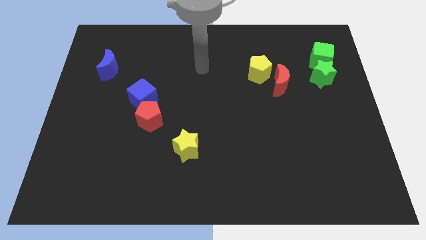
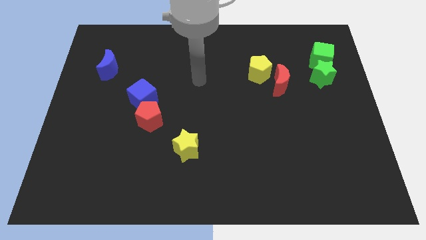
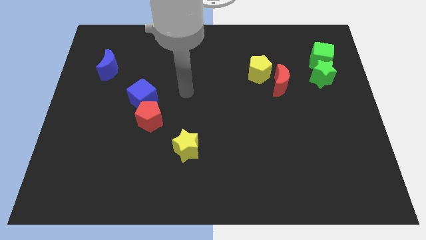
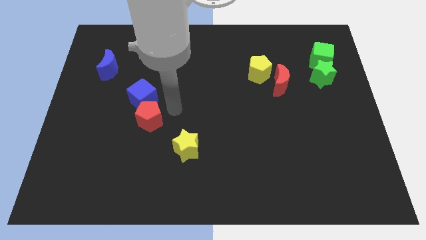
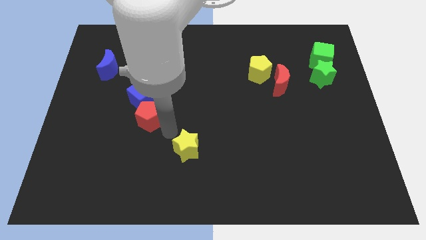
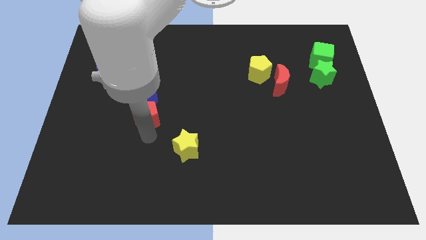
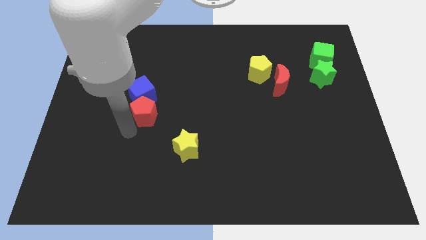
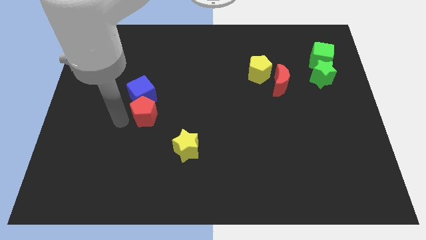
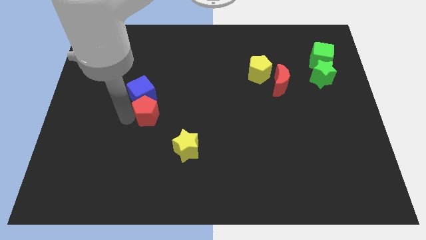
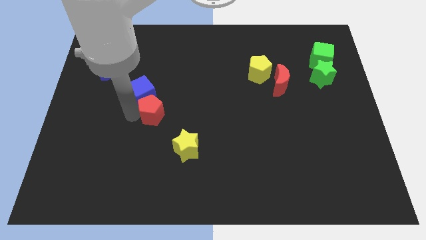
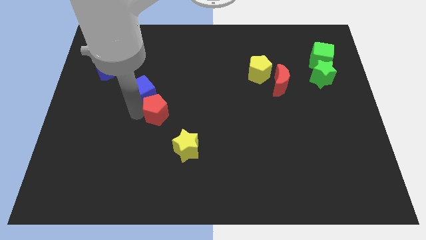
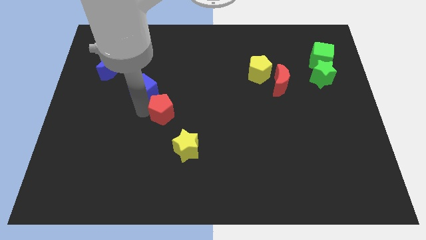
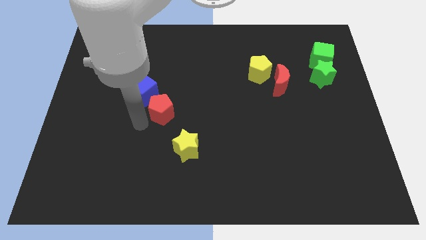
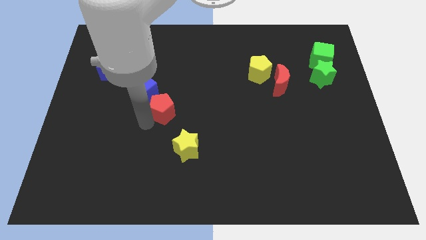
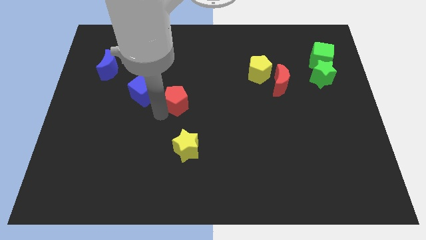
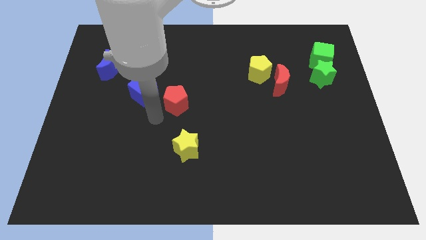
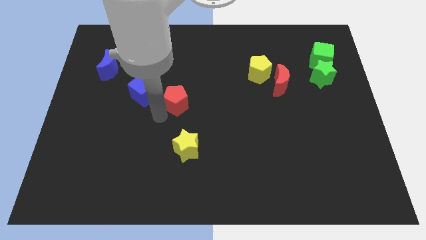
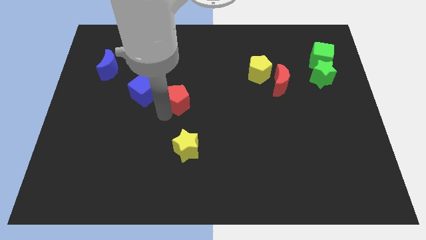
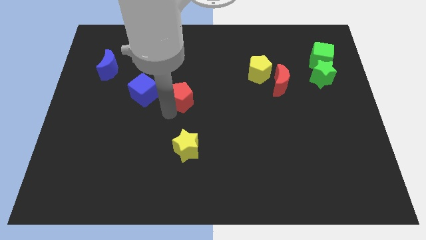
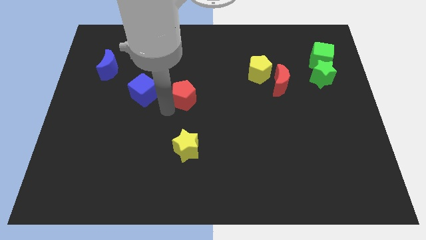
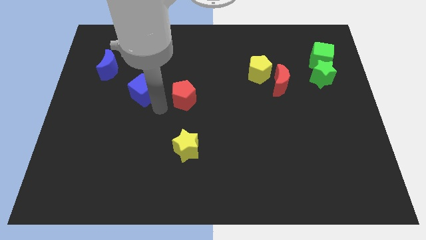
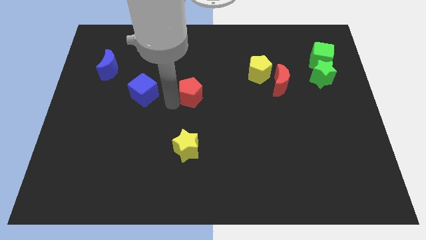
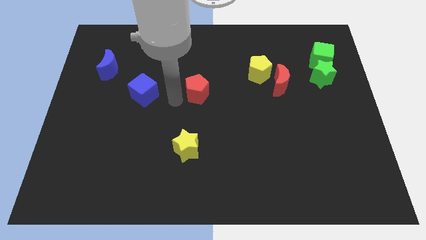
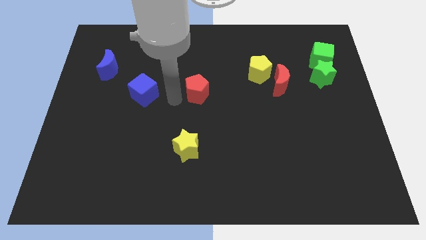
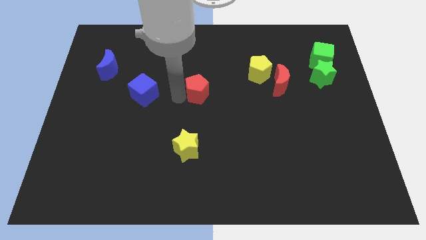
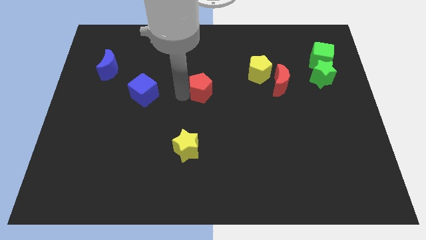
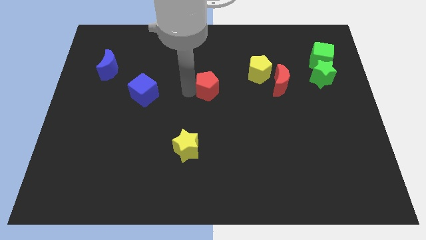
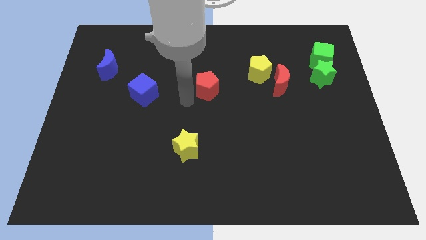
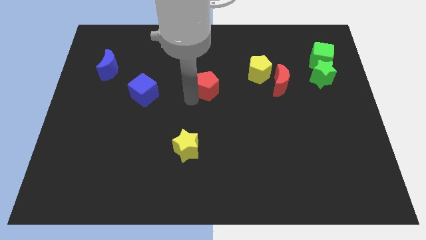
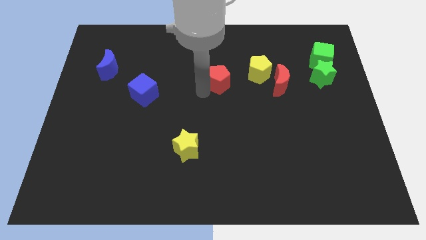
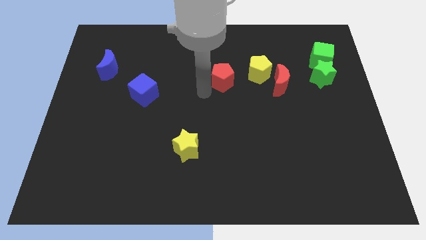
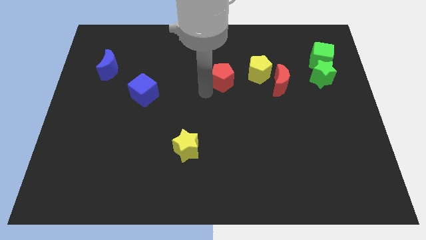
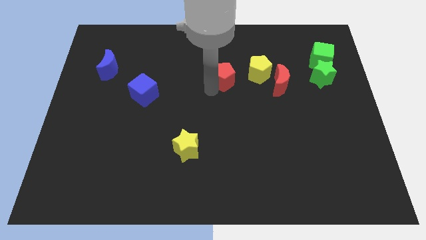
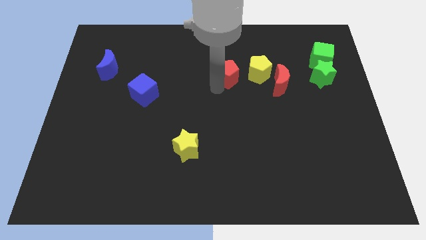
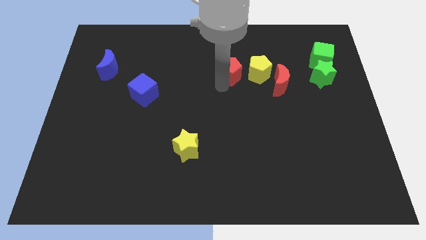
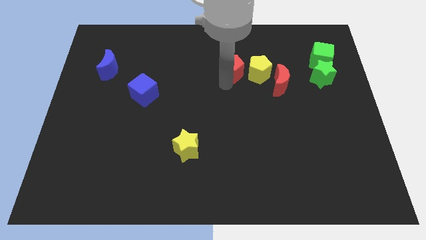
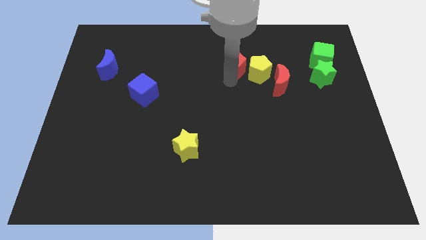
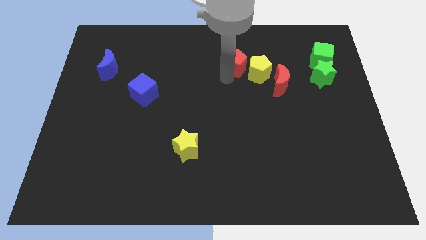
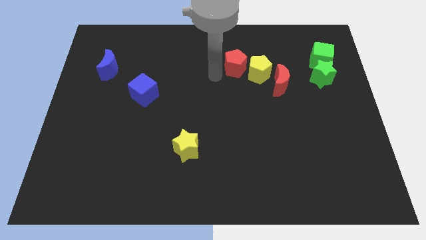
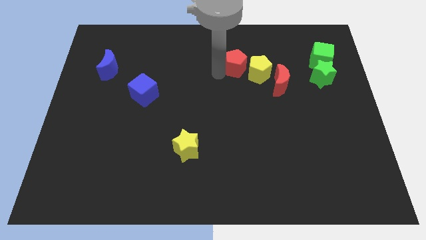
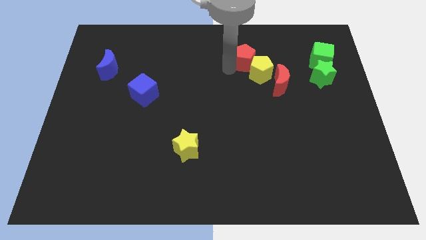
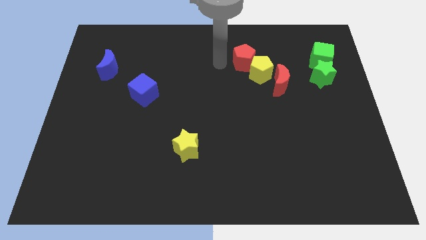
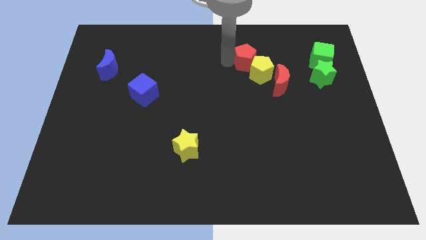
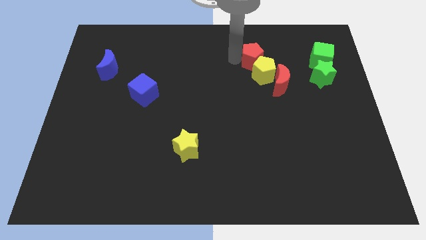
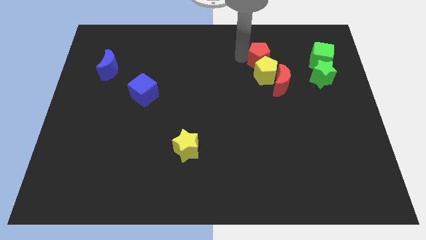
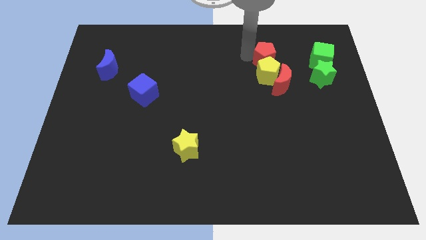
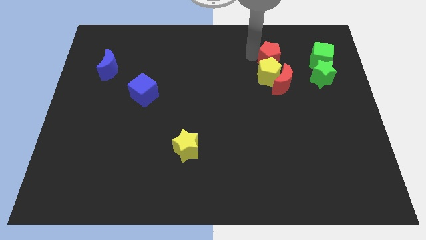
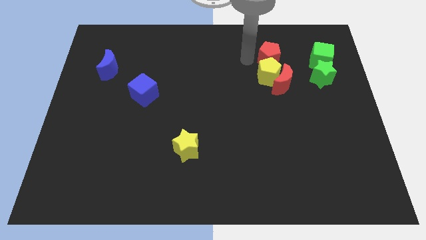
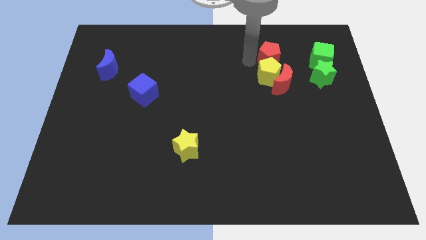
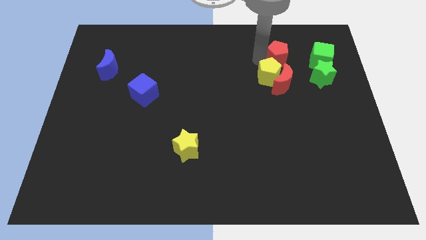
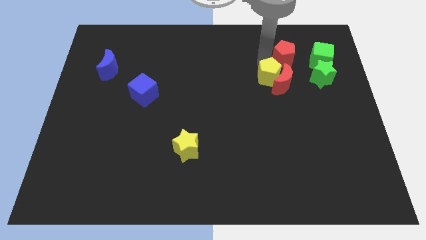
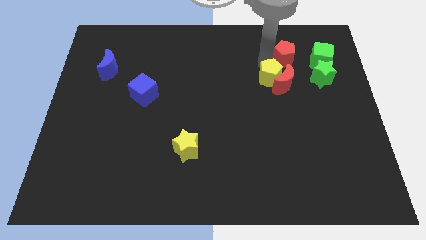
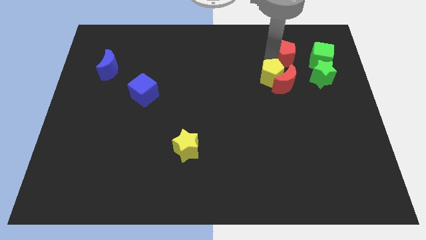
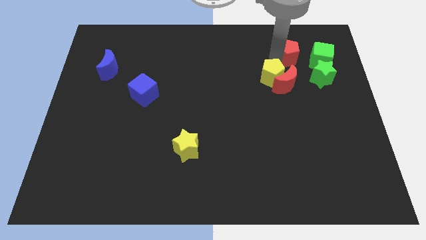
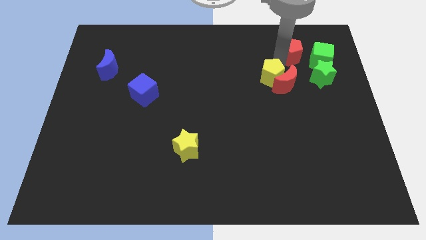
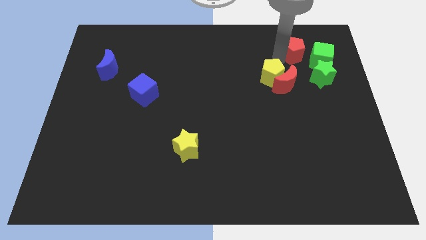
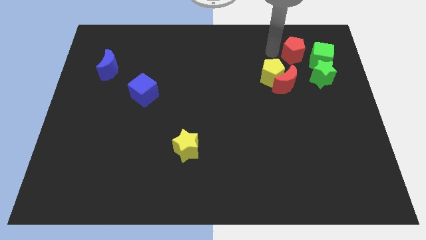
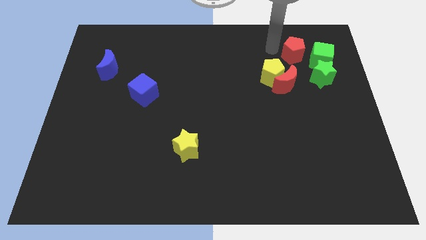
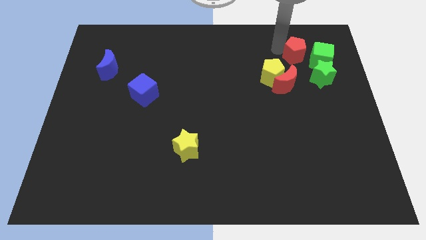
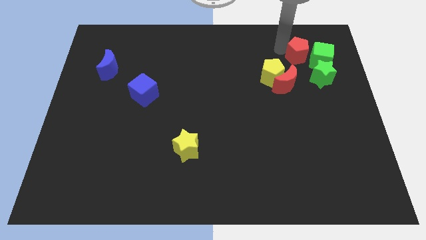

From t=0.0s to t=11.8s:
slide the red pentagon to the green cube

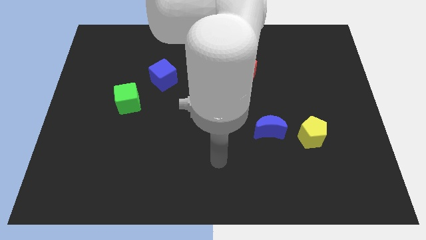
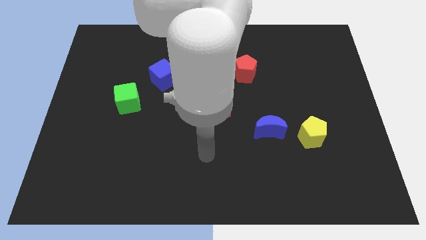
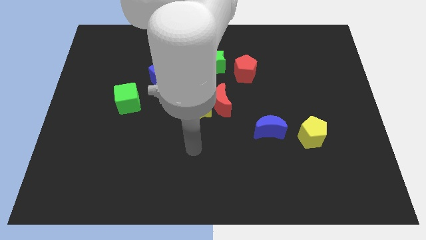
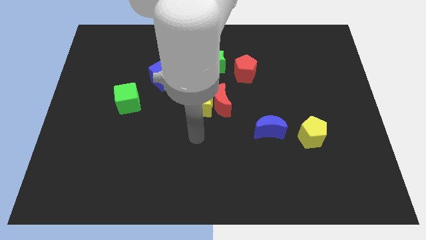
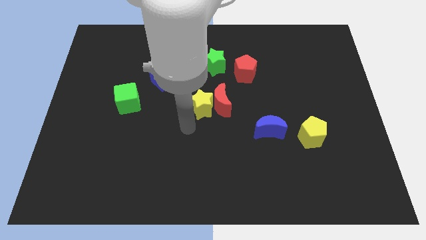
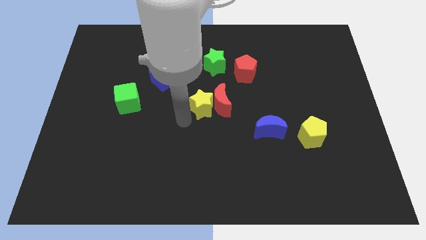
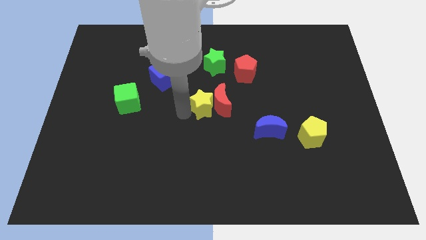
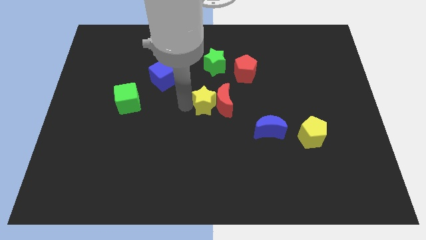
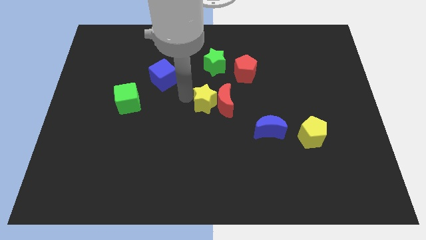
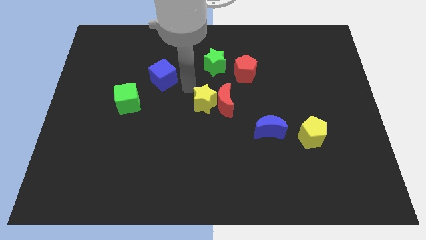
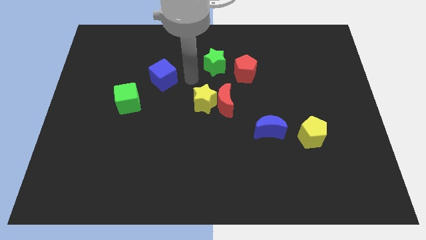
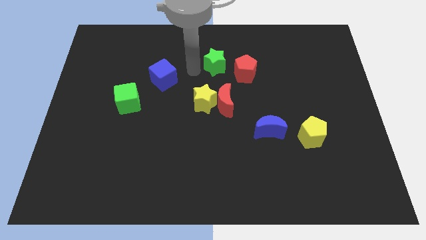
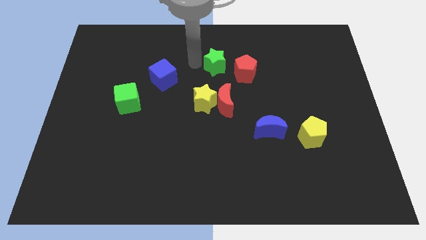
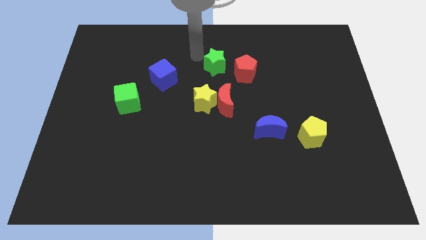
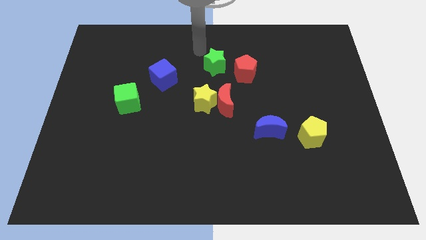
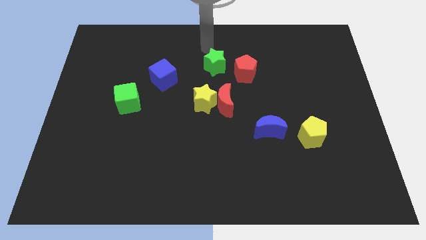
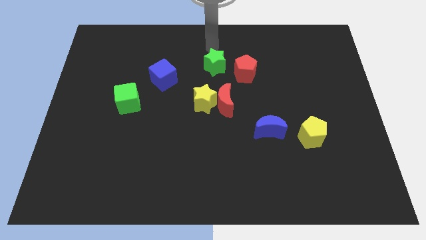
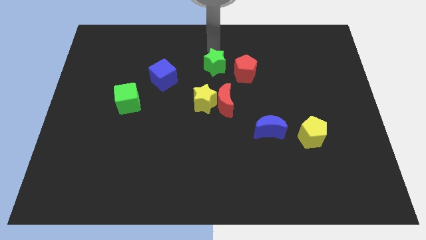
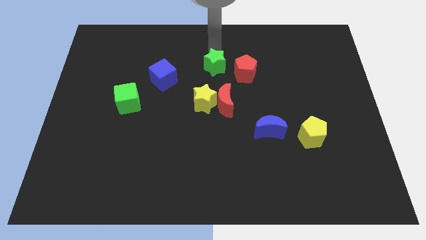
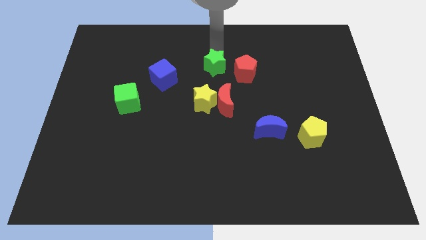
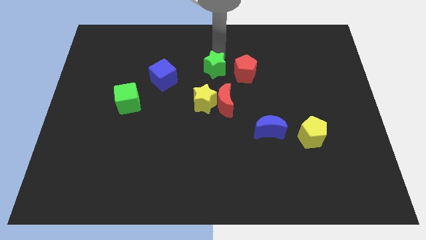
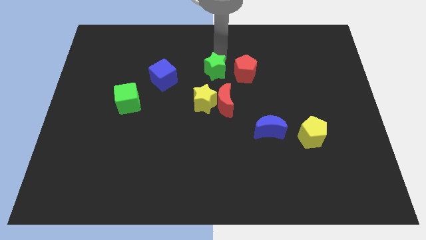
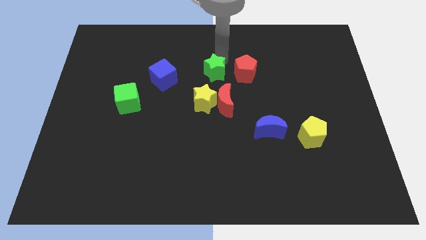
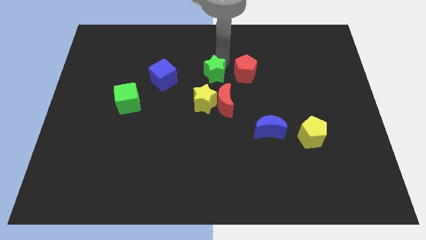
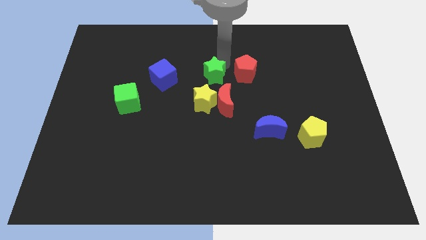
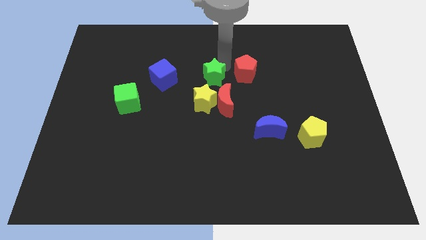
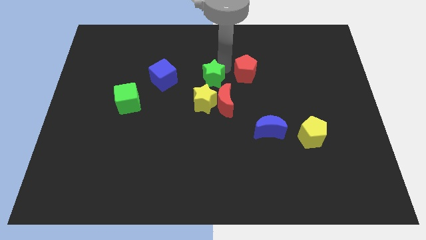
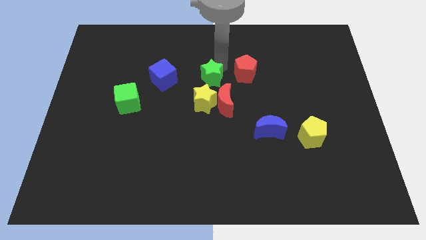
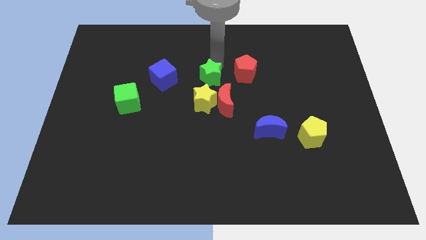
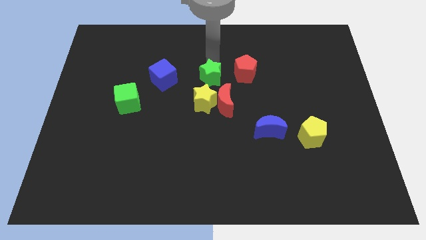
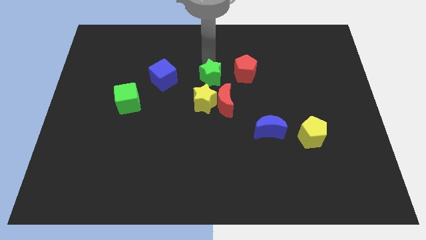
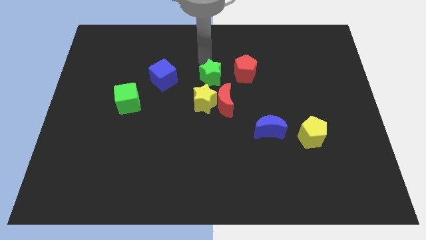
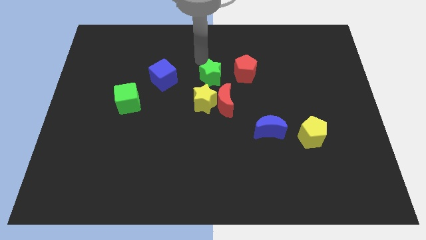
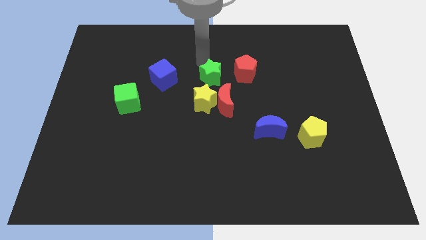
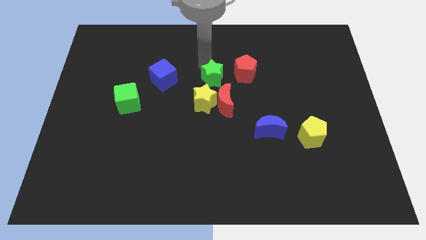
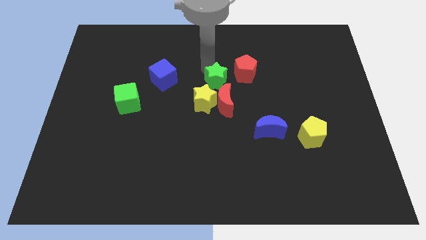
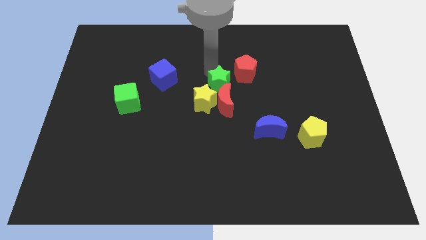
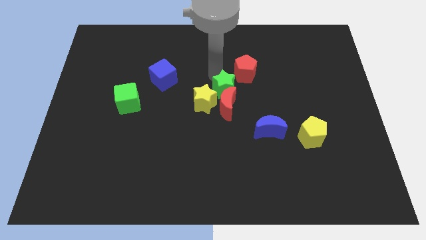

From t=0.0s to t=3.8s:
slide the green star to the red moon
